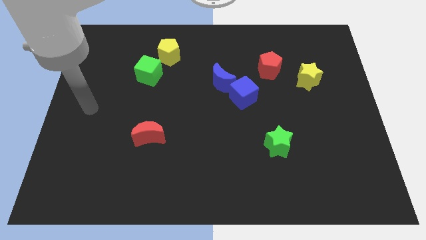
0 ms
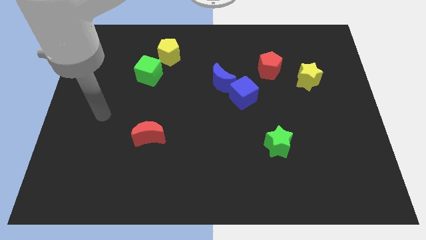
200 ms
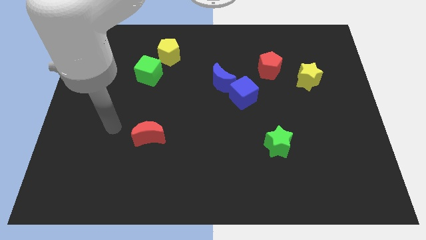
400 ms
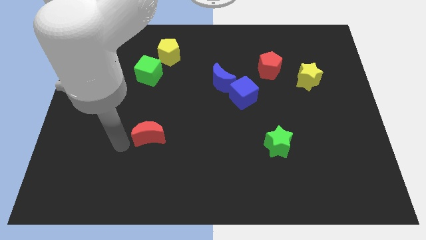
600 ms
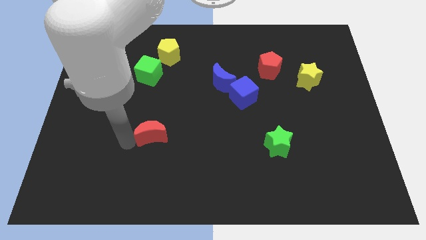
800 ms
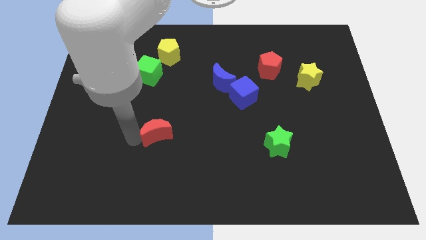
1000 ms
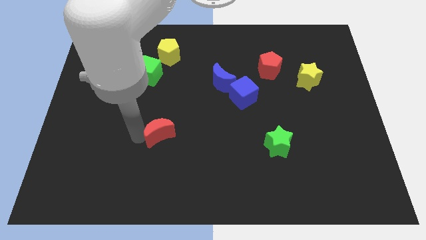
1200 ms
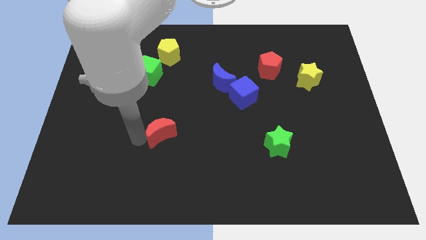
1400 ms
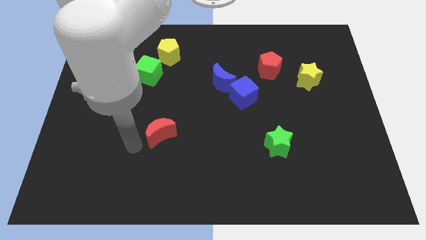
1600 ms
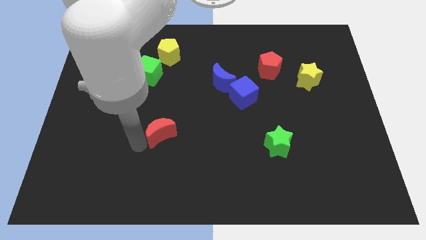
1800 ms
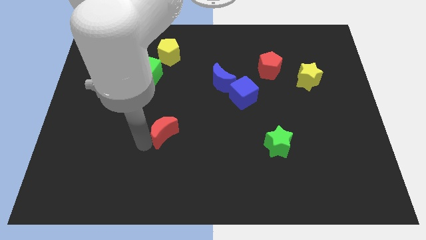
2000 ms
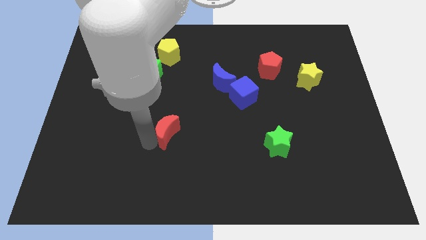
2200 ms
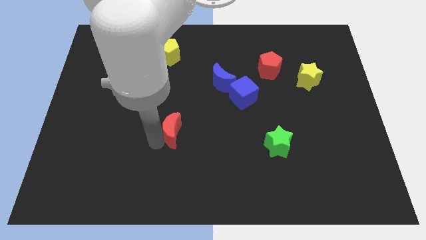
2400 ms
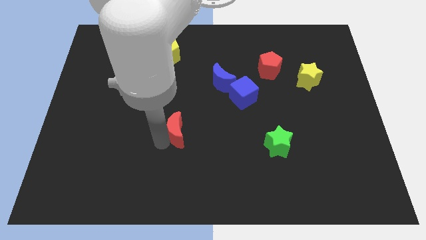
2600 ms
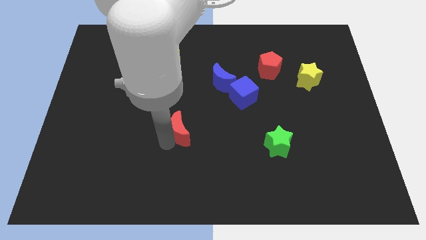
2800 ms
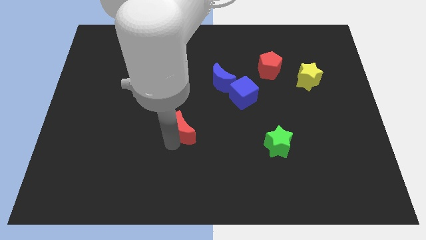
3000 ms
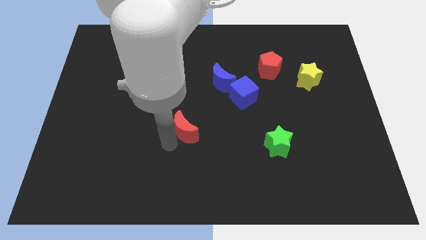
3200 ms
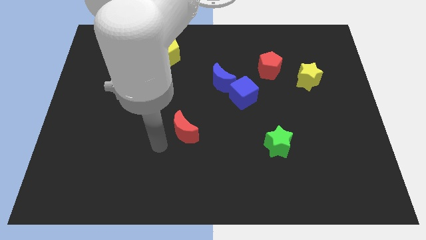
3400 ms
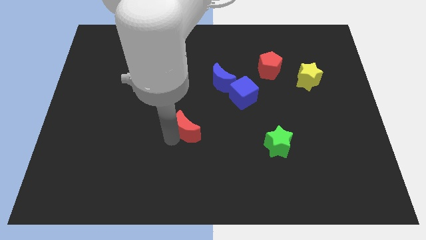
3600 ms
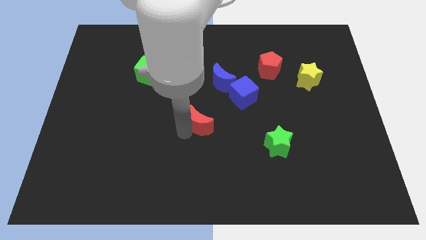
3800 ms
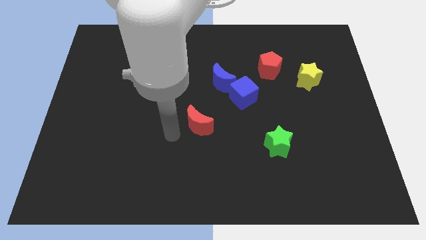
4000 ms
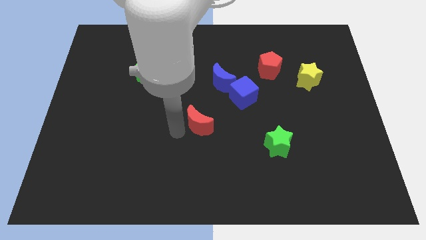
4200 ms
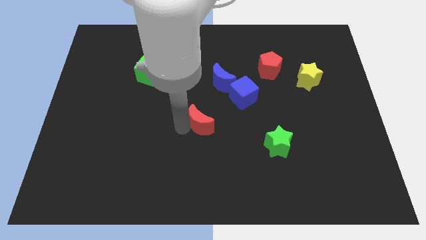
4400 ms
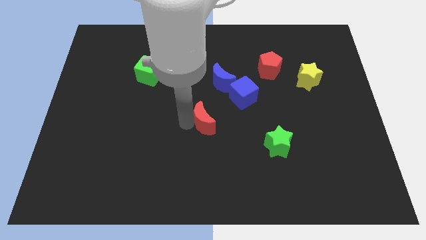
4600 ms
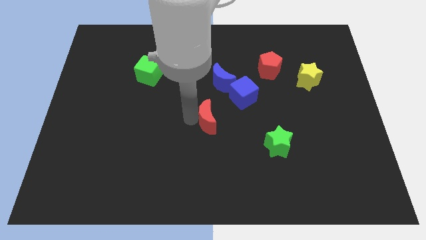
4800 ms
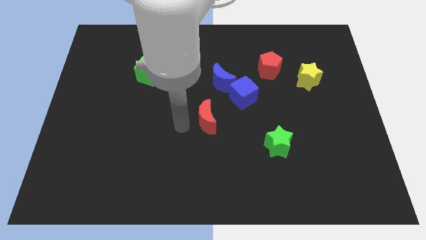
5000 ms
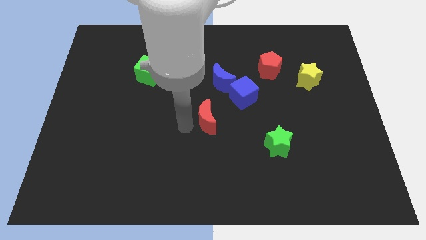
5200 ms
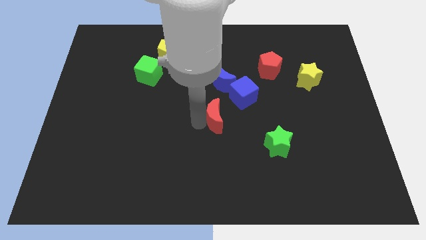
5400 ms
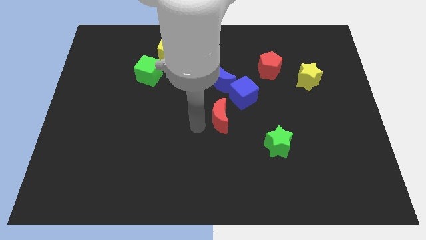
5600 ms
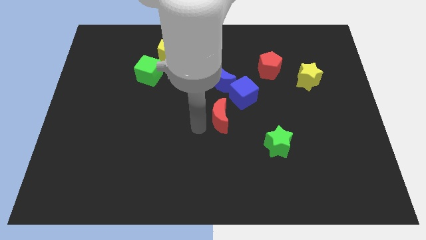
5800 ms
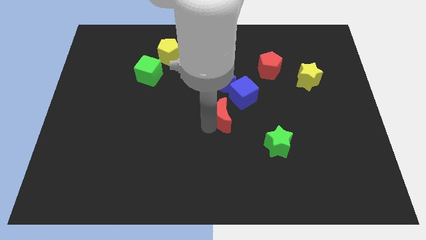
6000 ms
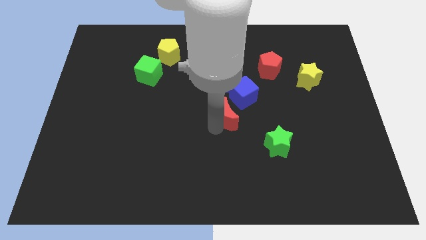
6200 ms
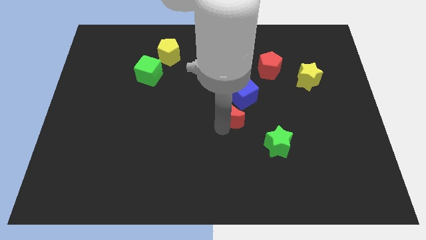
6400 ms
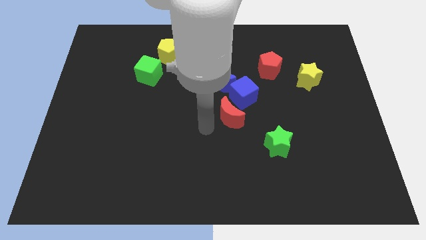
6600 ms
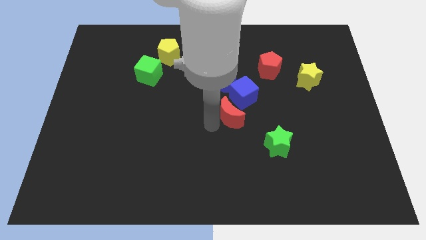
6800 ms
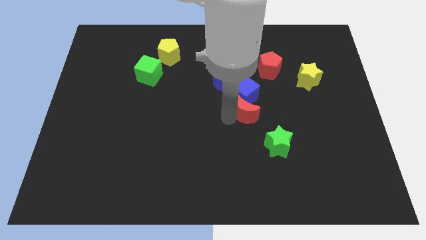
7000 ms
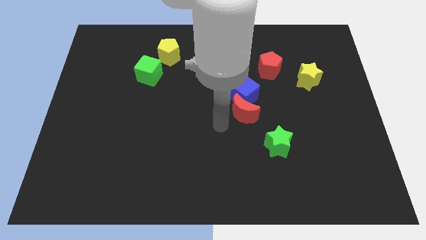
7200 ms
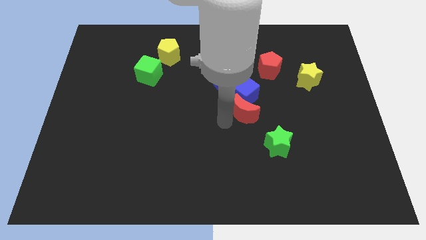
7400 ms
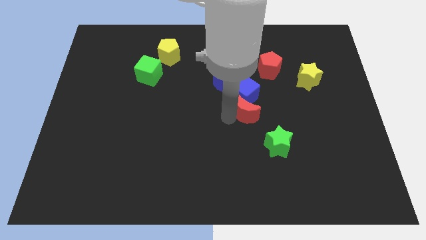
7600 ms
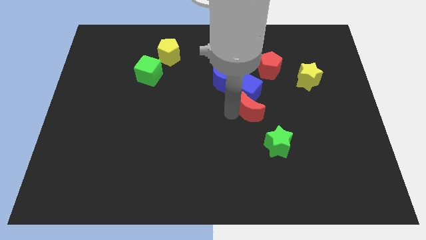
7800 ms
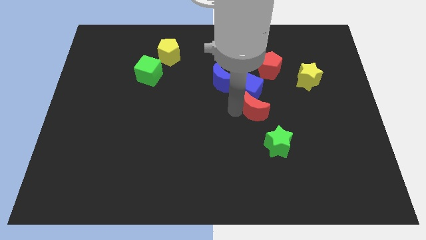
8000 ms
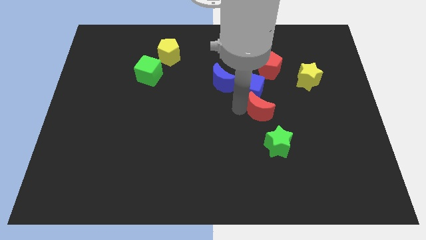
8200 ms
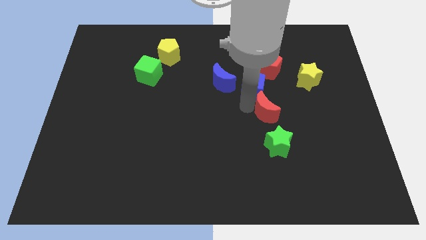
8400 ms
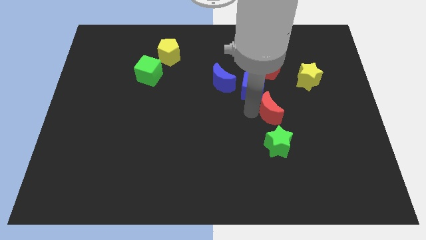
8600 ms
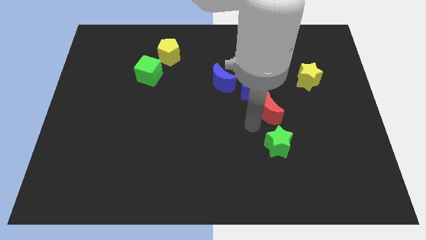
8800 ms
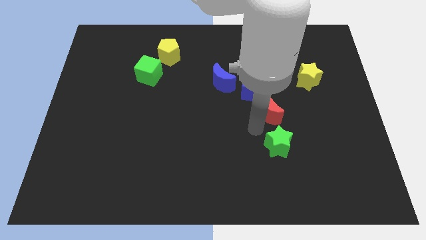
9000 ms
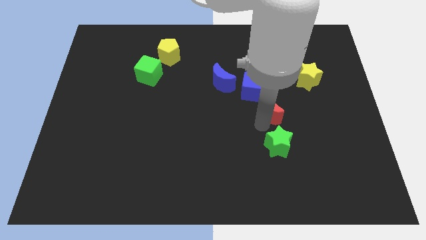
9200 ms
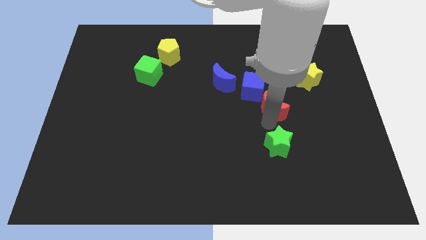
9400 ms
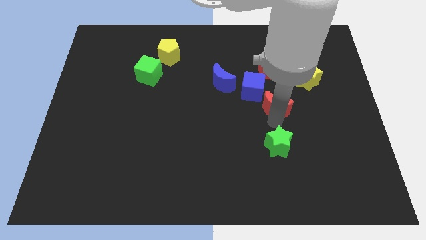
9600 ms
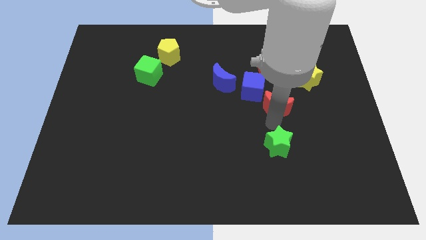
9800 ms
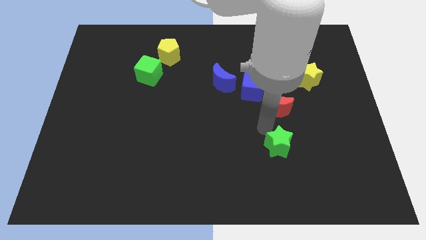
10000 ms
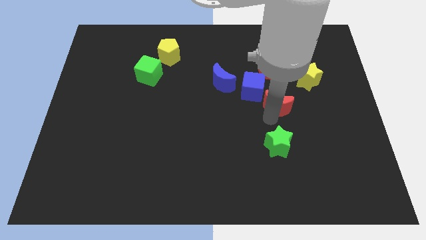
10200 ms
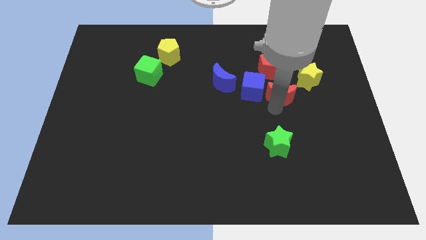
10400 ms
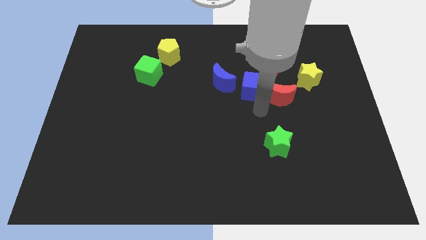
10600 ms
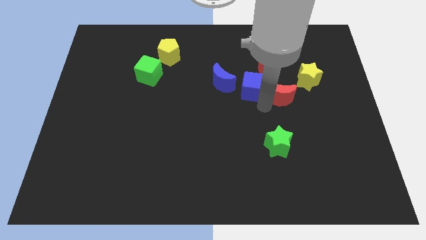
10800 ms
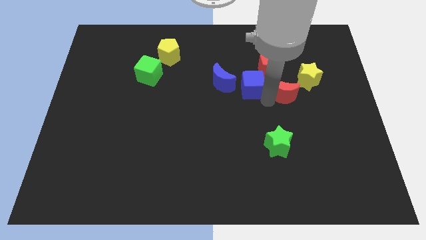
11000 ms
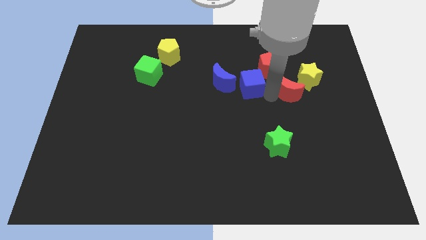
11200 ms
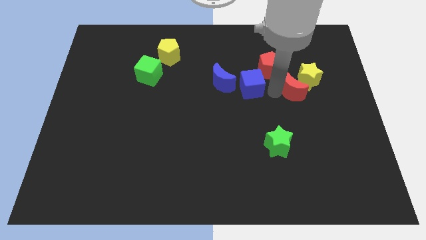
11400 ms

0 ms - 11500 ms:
move the red moon towards the yellow star

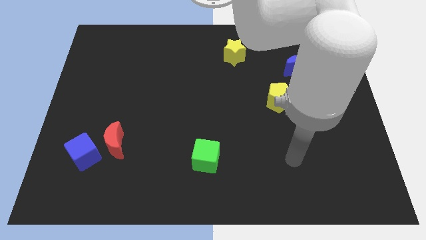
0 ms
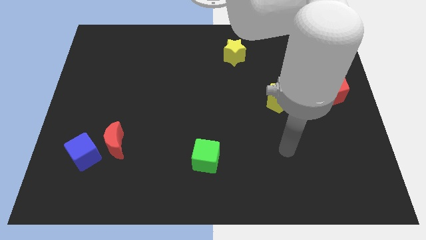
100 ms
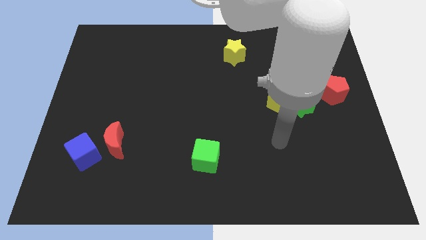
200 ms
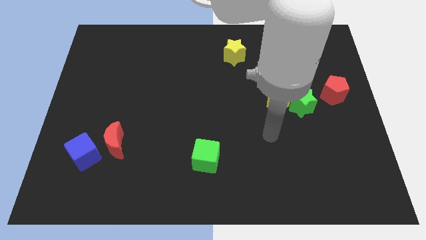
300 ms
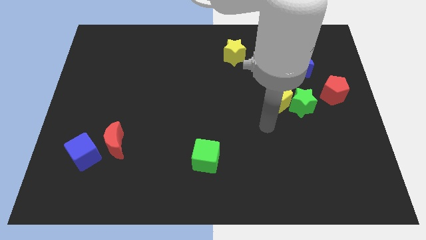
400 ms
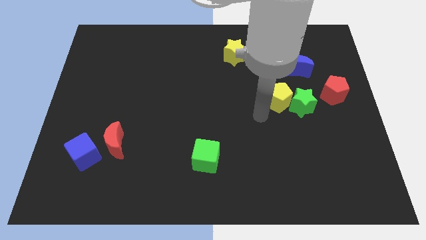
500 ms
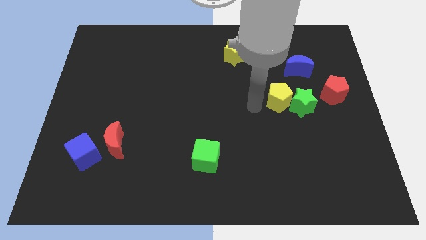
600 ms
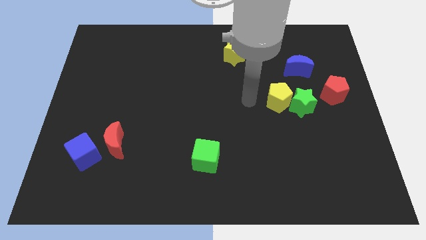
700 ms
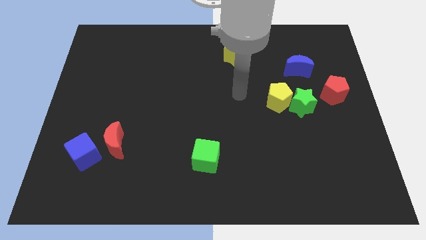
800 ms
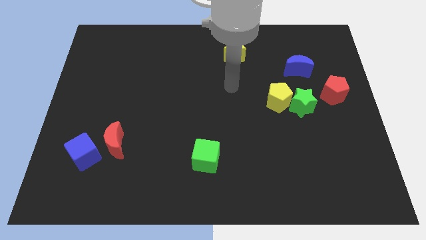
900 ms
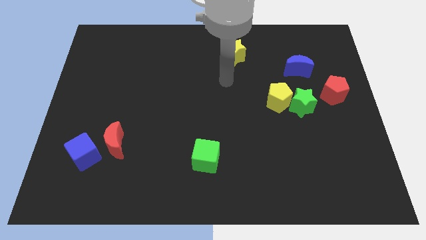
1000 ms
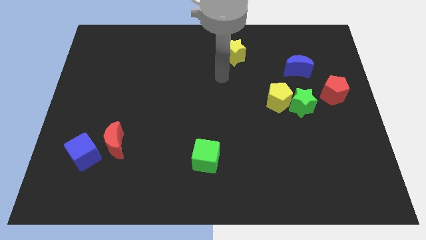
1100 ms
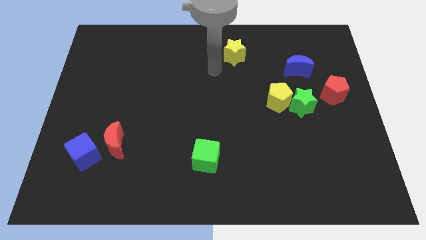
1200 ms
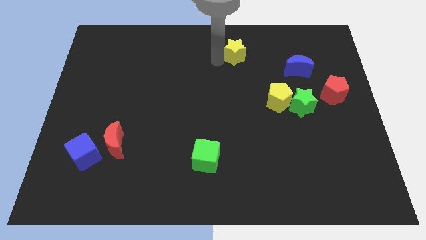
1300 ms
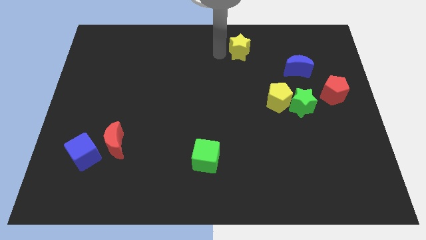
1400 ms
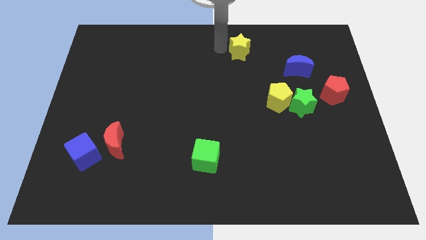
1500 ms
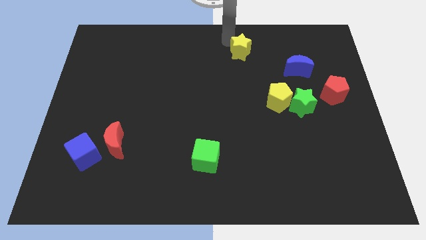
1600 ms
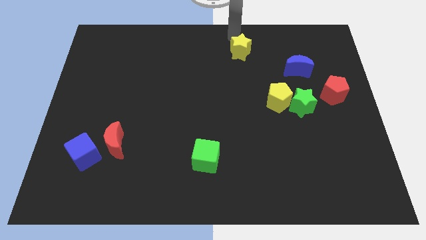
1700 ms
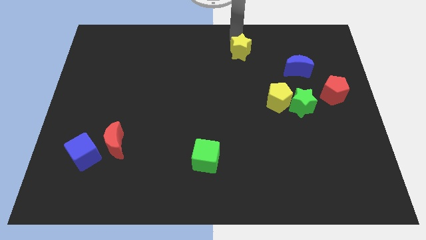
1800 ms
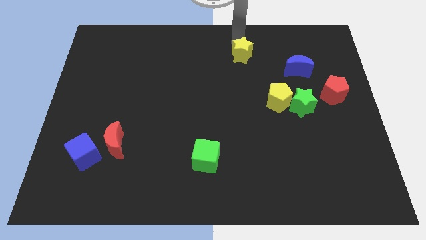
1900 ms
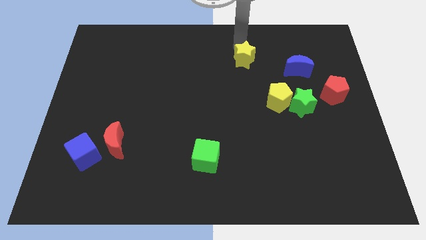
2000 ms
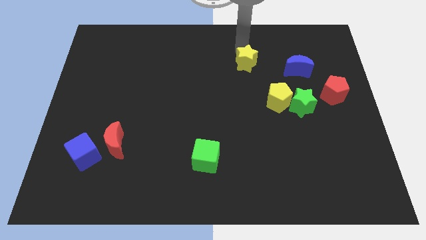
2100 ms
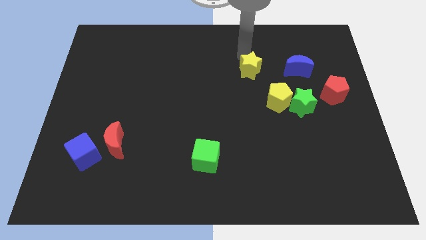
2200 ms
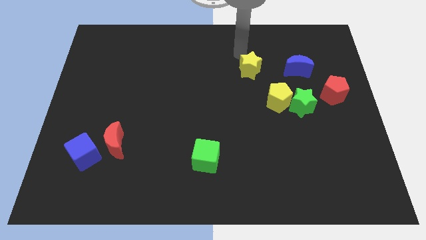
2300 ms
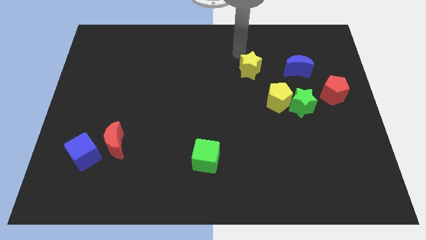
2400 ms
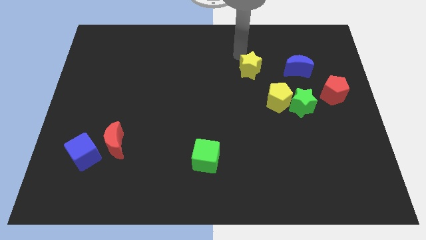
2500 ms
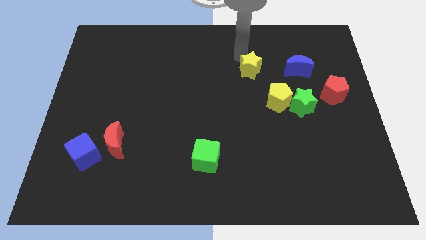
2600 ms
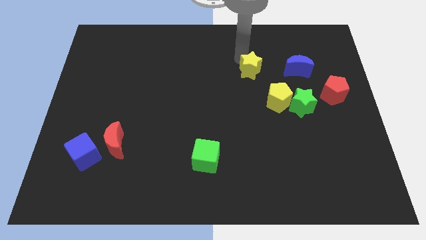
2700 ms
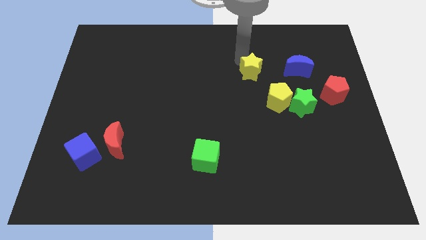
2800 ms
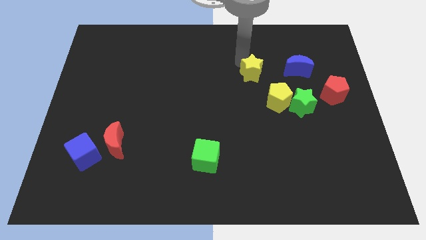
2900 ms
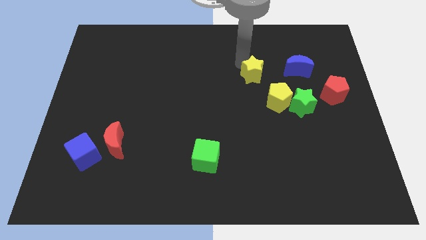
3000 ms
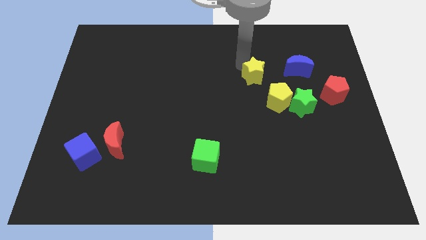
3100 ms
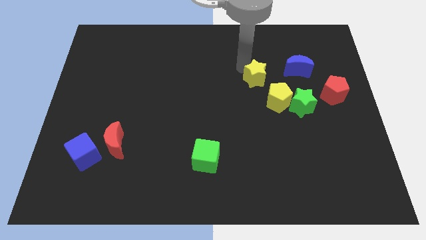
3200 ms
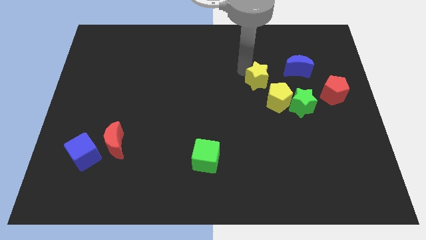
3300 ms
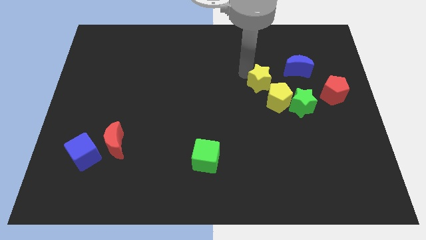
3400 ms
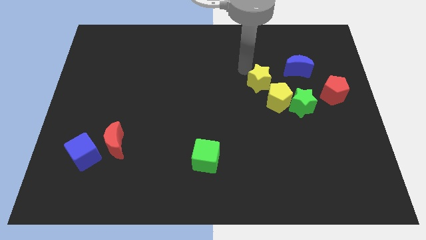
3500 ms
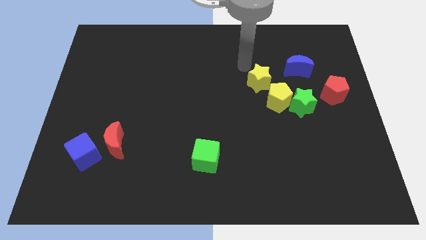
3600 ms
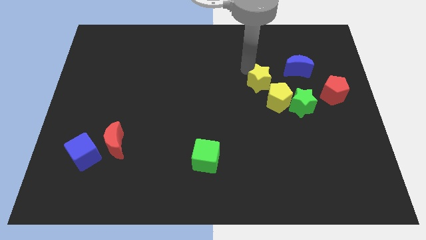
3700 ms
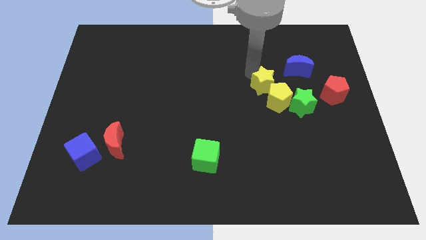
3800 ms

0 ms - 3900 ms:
move the yellow star to the yellow pentagon
